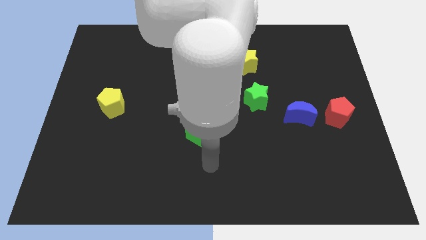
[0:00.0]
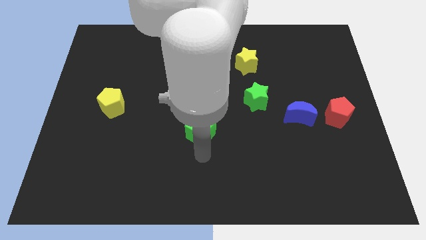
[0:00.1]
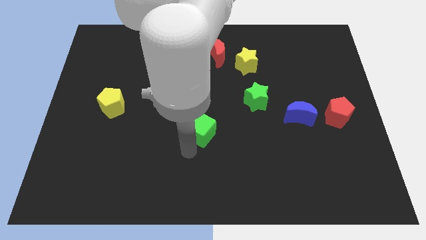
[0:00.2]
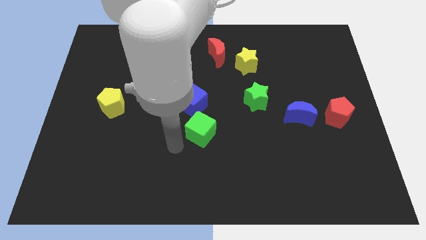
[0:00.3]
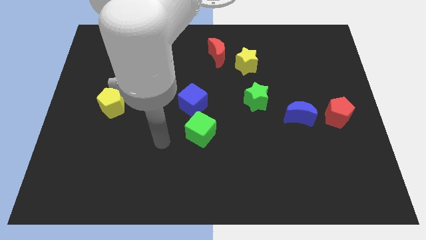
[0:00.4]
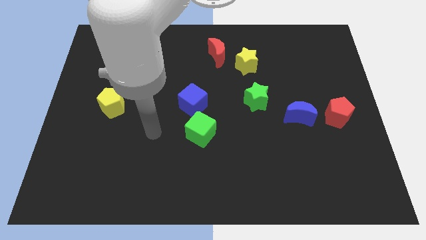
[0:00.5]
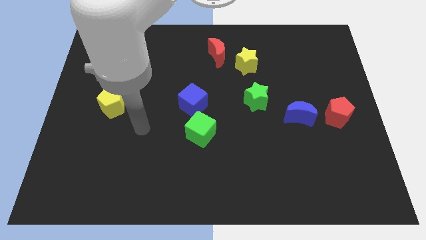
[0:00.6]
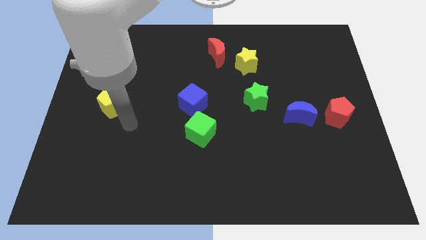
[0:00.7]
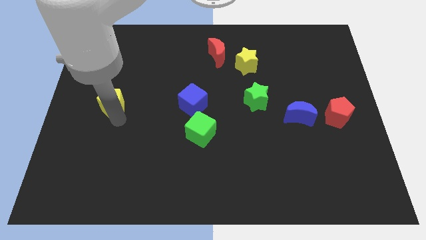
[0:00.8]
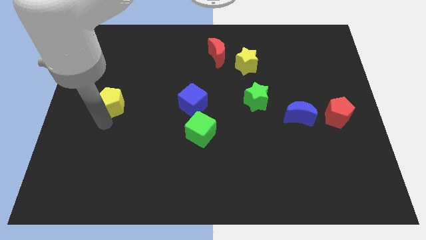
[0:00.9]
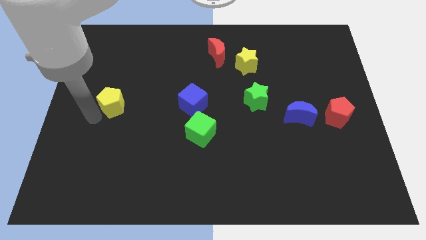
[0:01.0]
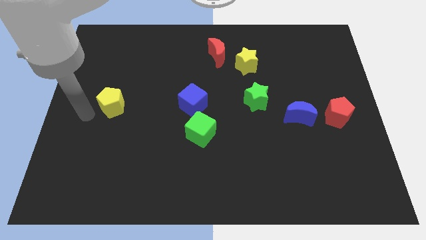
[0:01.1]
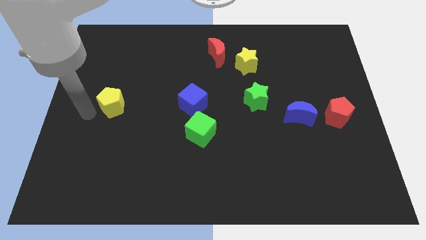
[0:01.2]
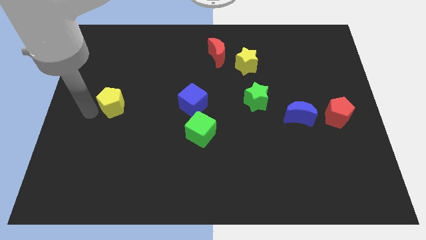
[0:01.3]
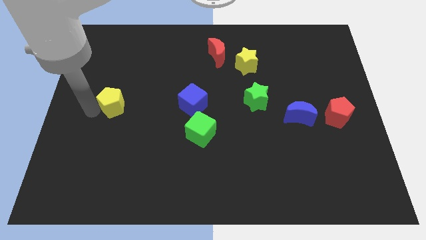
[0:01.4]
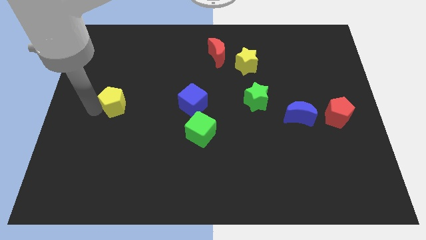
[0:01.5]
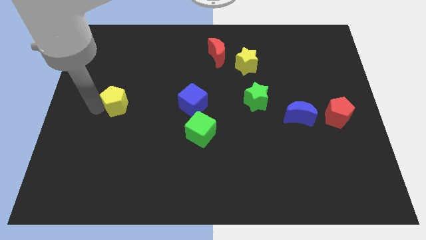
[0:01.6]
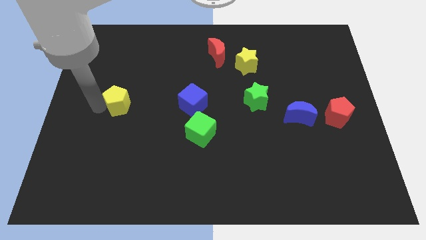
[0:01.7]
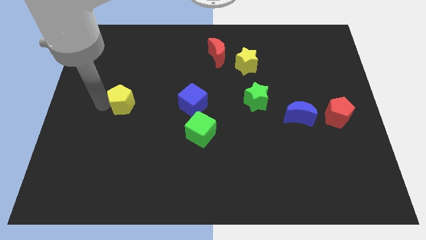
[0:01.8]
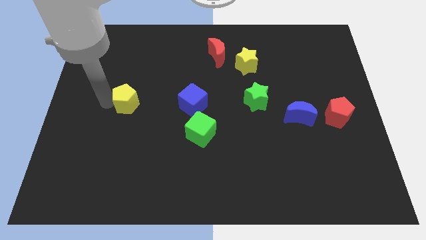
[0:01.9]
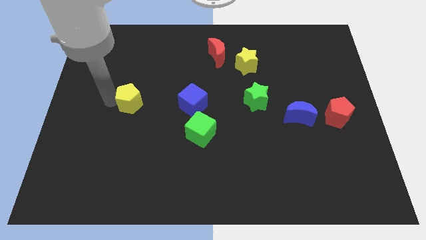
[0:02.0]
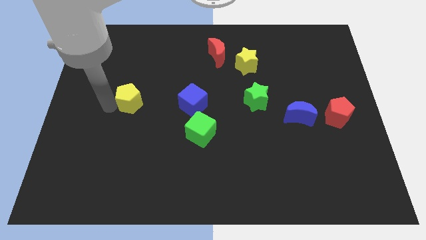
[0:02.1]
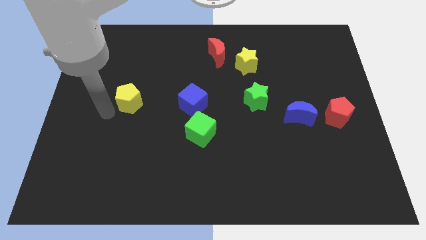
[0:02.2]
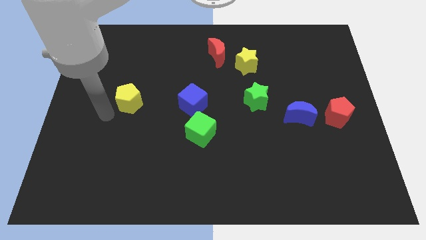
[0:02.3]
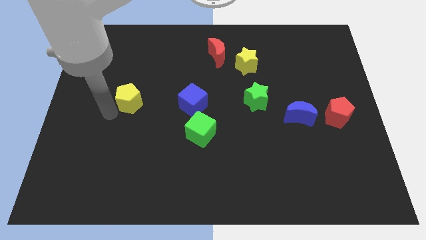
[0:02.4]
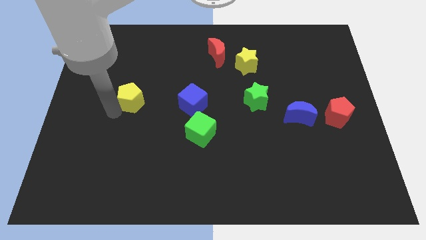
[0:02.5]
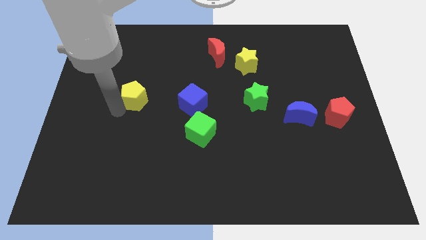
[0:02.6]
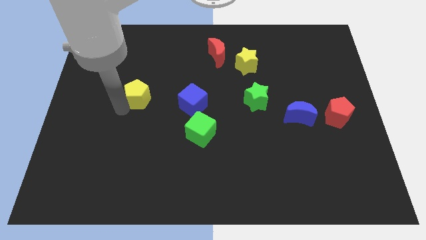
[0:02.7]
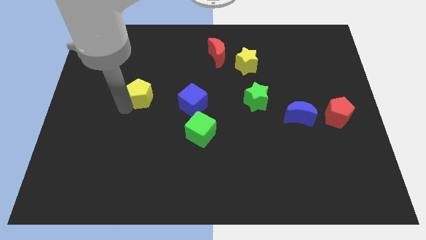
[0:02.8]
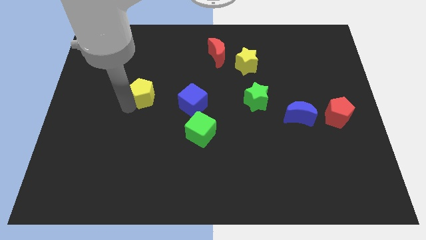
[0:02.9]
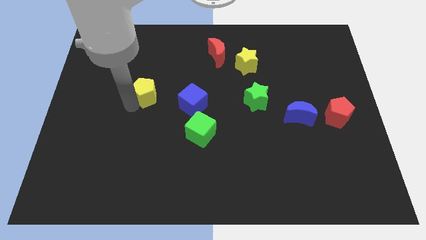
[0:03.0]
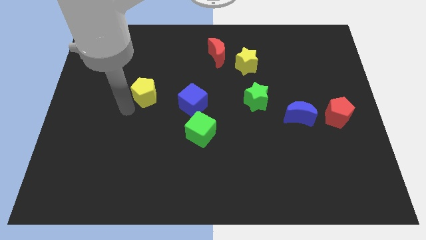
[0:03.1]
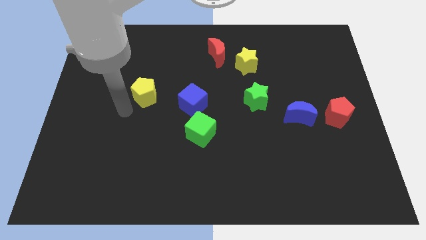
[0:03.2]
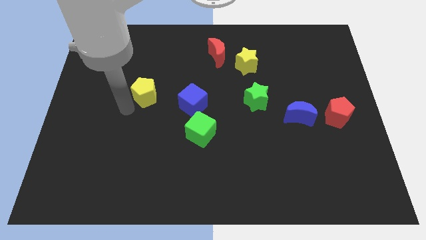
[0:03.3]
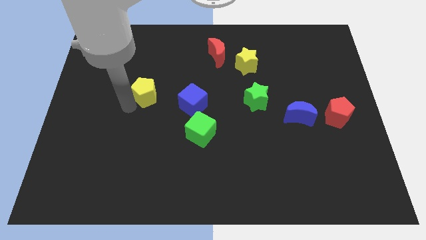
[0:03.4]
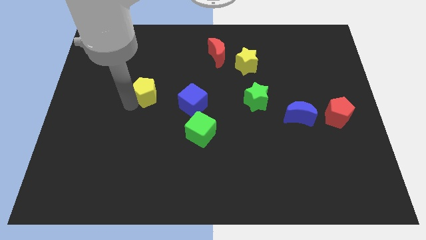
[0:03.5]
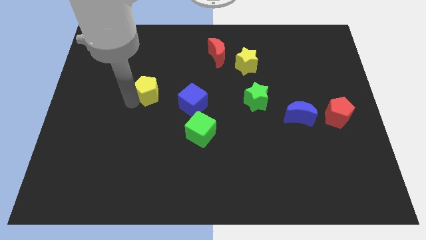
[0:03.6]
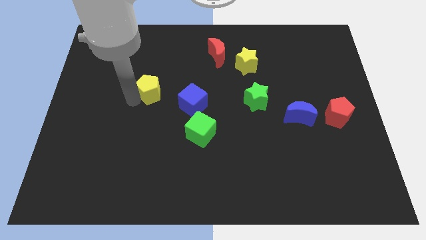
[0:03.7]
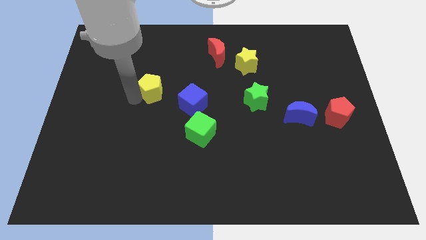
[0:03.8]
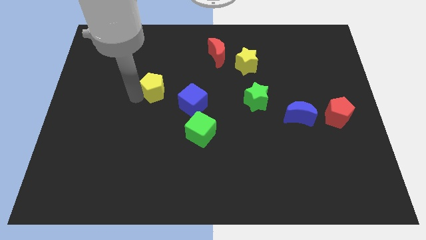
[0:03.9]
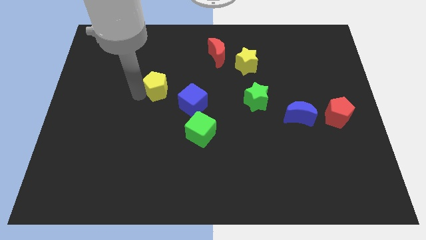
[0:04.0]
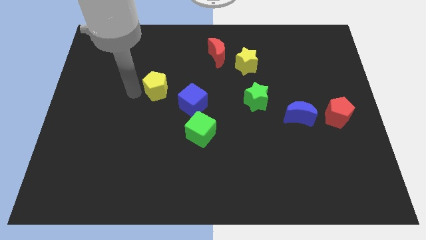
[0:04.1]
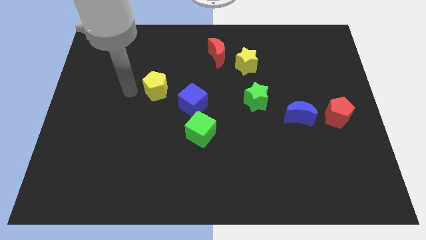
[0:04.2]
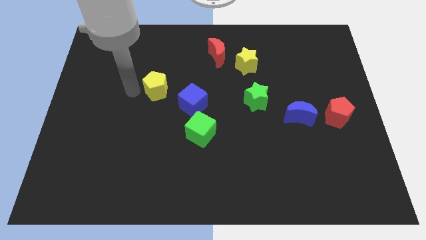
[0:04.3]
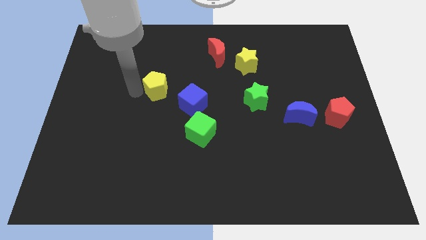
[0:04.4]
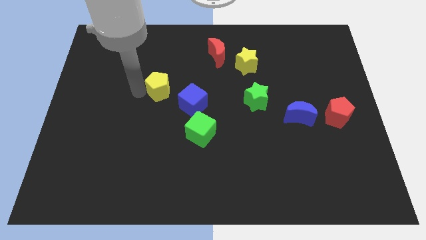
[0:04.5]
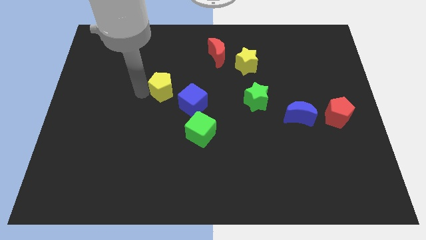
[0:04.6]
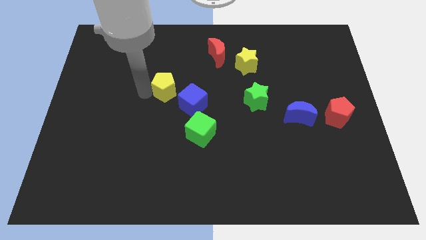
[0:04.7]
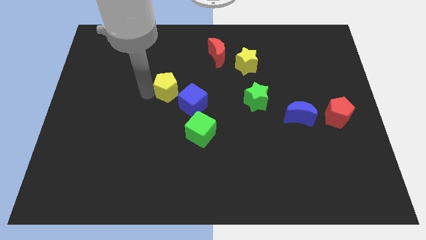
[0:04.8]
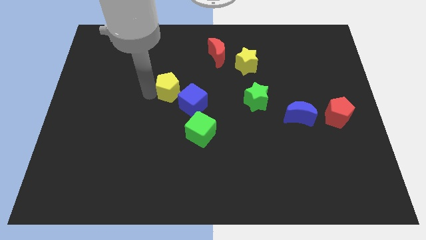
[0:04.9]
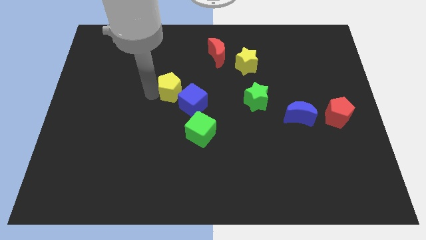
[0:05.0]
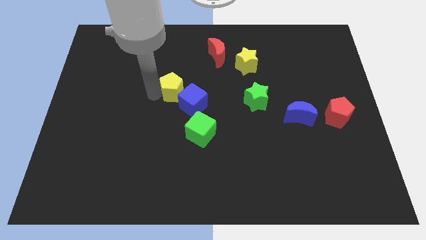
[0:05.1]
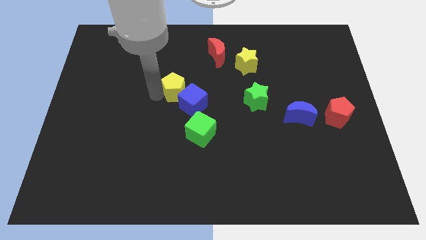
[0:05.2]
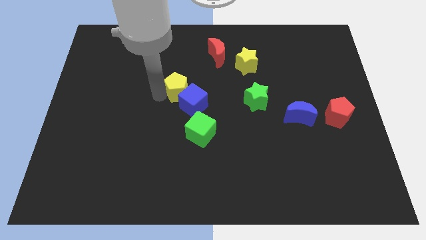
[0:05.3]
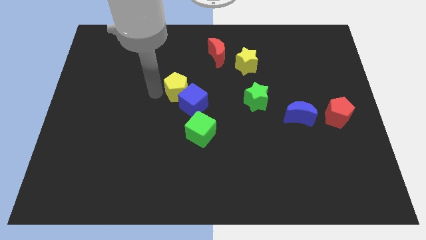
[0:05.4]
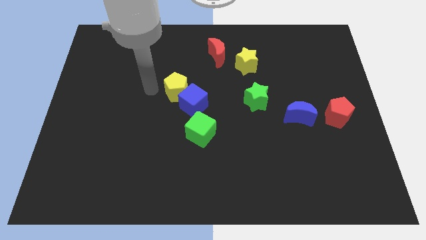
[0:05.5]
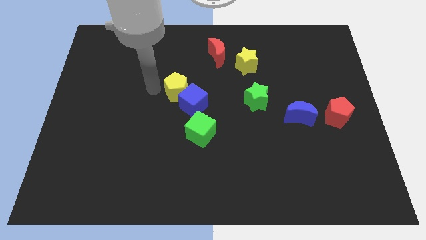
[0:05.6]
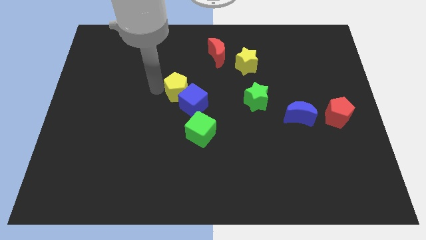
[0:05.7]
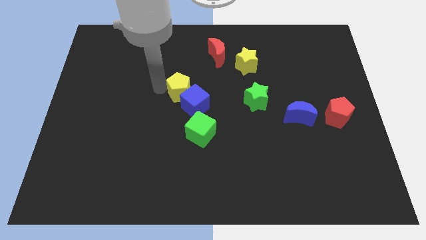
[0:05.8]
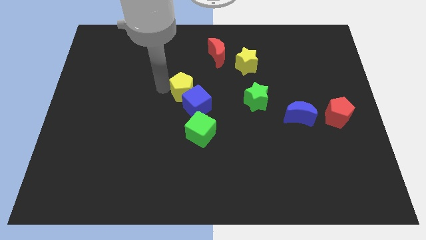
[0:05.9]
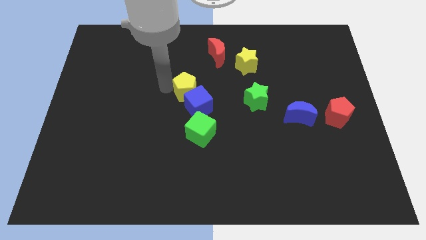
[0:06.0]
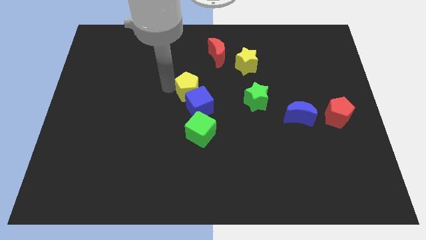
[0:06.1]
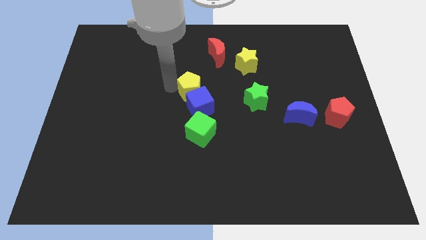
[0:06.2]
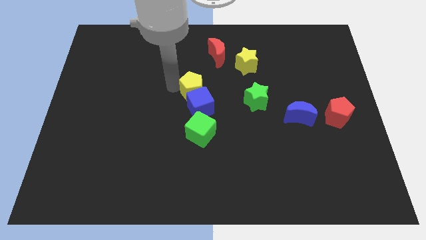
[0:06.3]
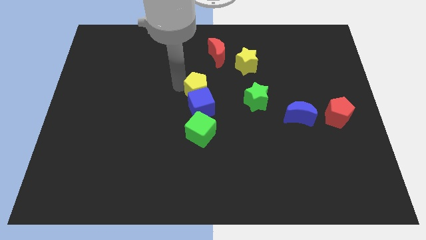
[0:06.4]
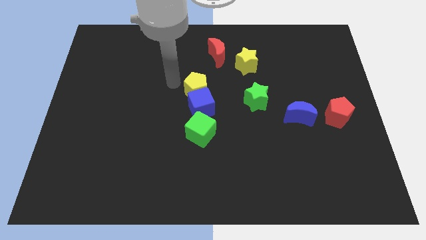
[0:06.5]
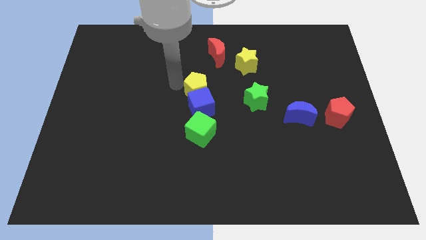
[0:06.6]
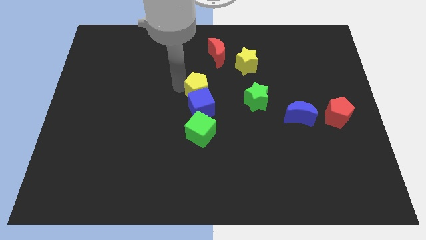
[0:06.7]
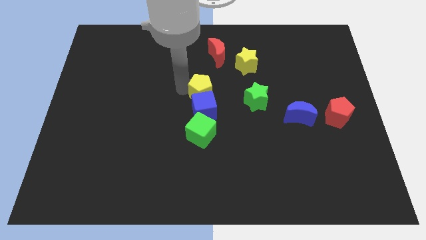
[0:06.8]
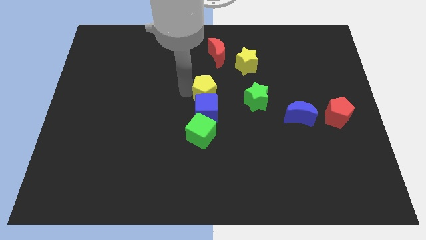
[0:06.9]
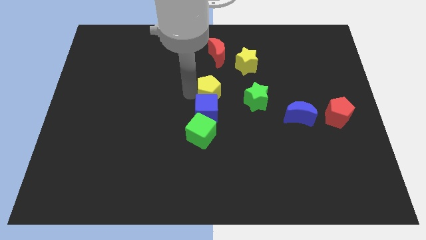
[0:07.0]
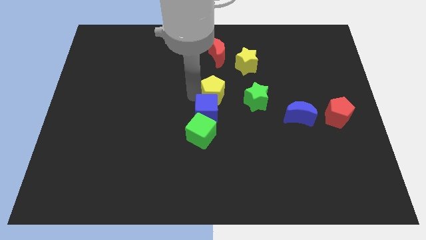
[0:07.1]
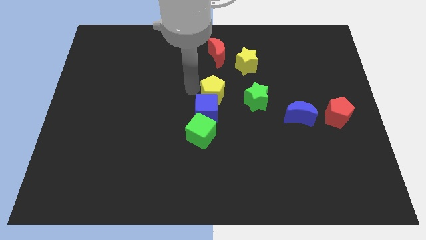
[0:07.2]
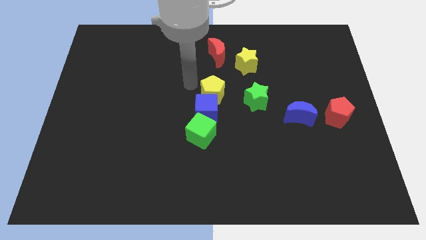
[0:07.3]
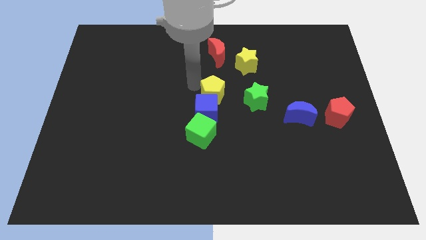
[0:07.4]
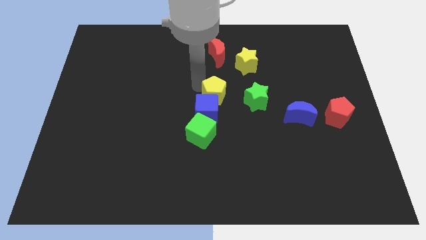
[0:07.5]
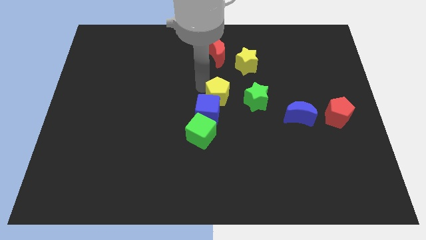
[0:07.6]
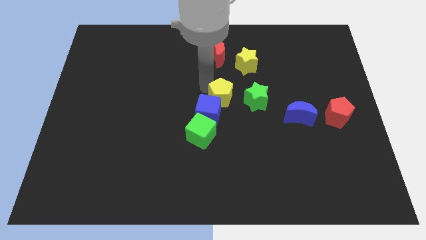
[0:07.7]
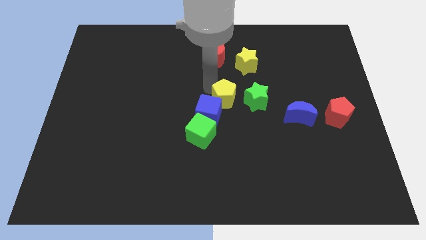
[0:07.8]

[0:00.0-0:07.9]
put the yellow pentagon just right of the blue cube
